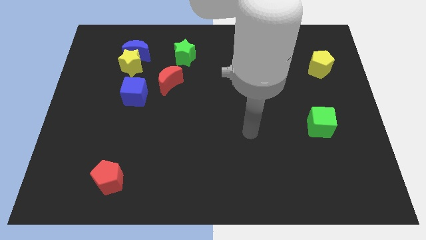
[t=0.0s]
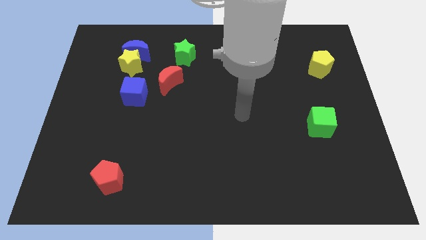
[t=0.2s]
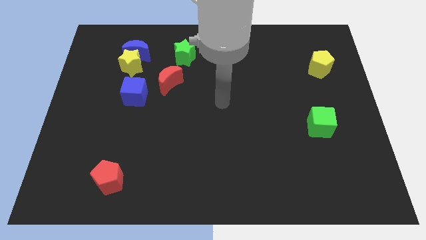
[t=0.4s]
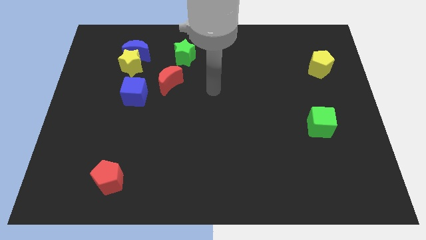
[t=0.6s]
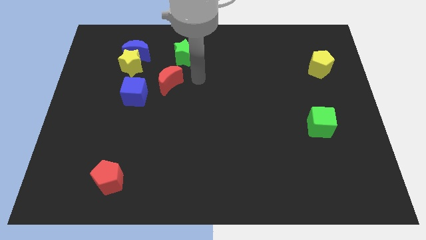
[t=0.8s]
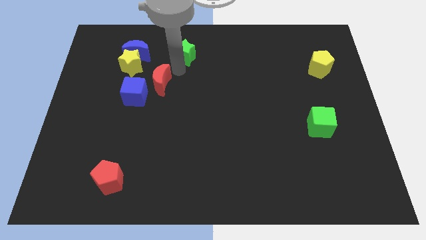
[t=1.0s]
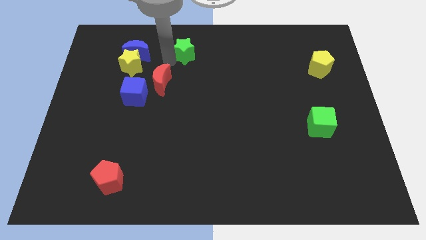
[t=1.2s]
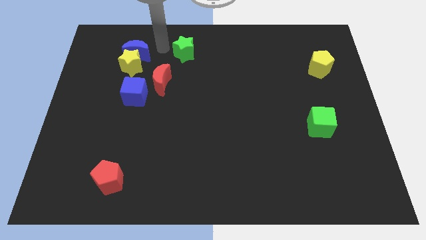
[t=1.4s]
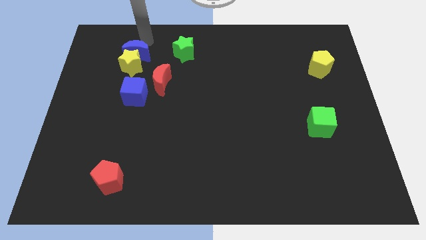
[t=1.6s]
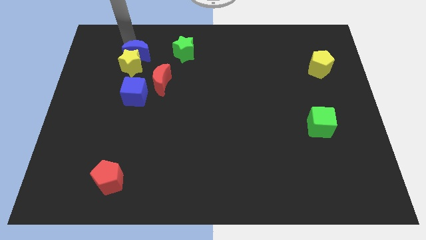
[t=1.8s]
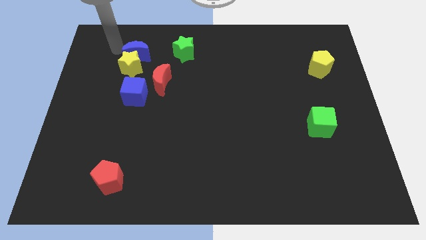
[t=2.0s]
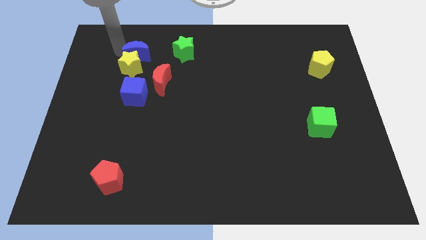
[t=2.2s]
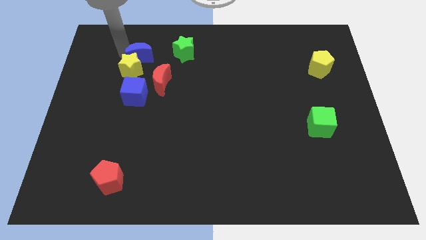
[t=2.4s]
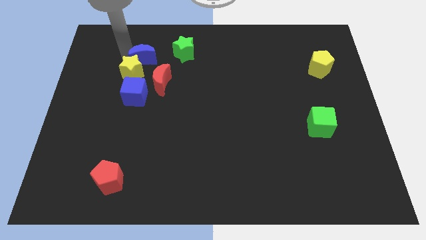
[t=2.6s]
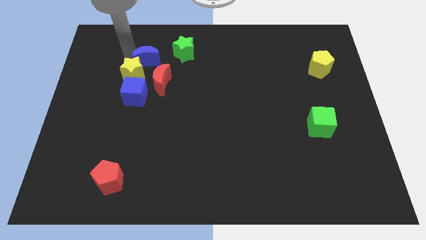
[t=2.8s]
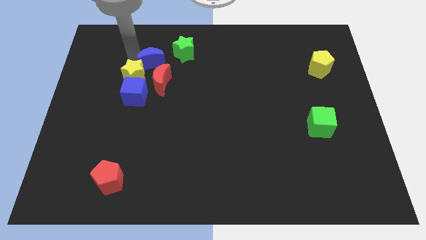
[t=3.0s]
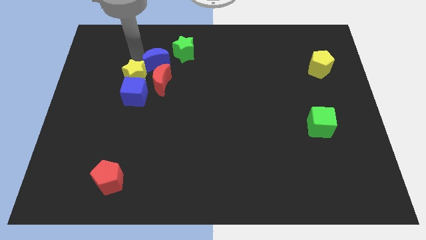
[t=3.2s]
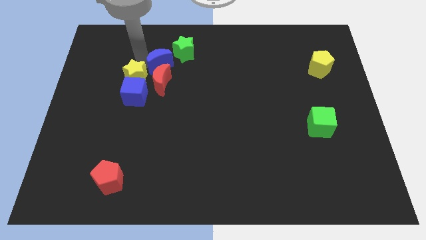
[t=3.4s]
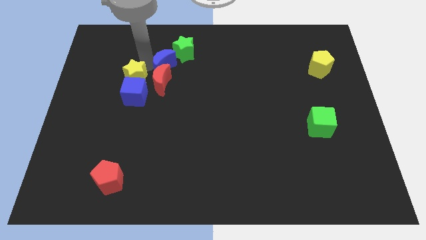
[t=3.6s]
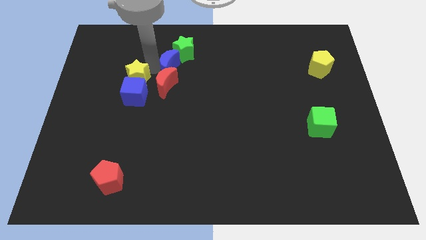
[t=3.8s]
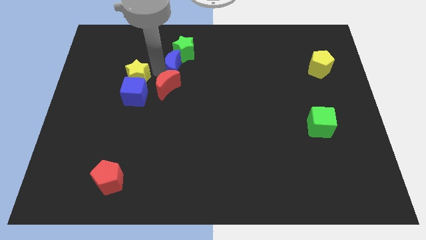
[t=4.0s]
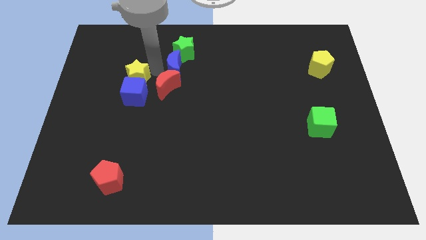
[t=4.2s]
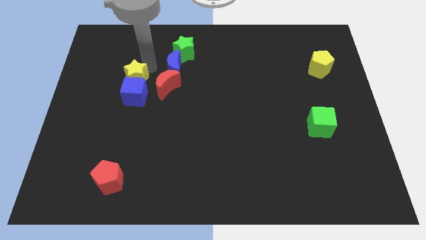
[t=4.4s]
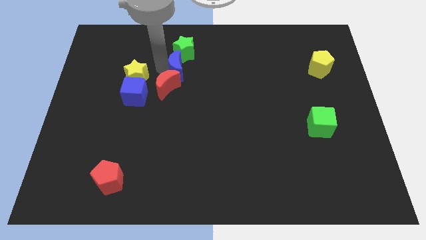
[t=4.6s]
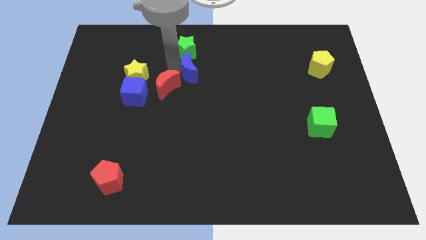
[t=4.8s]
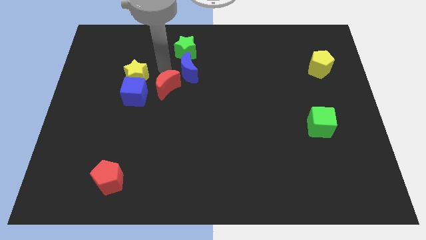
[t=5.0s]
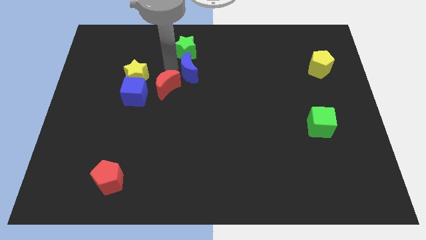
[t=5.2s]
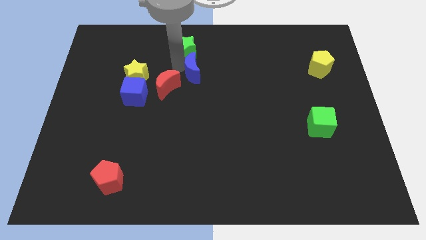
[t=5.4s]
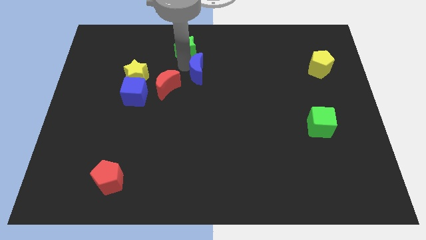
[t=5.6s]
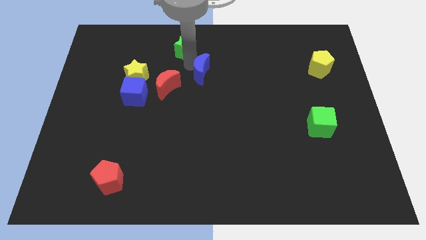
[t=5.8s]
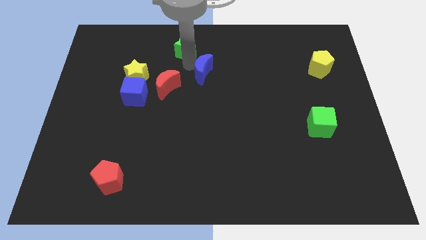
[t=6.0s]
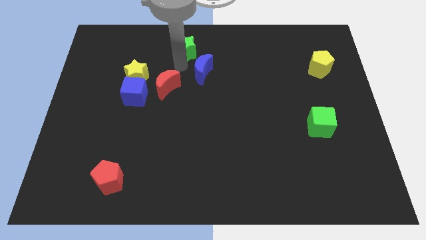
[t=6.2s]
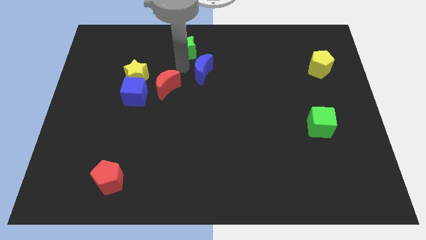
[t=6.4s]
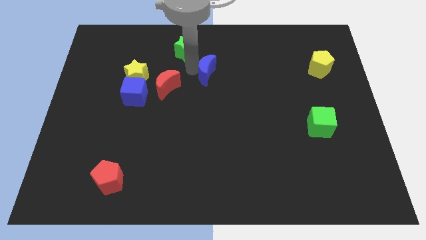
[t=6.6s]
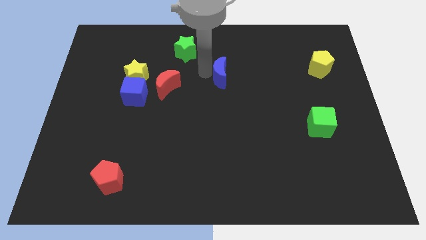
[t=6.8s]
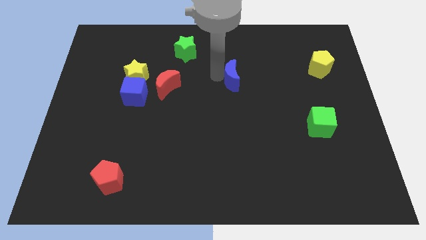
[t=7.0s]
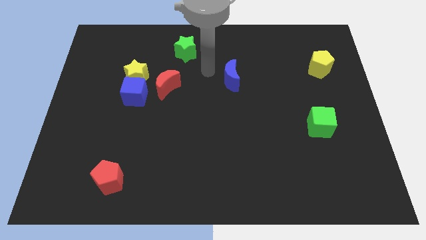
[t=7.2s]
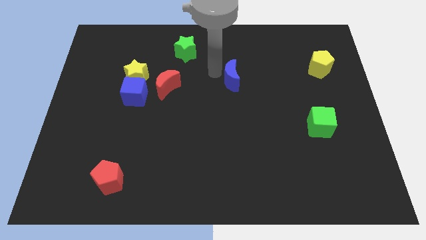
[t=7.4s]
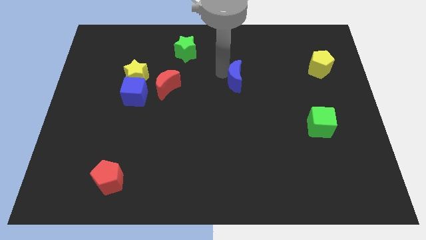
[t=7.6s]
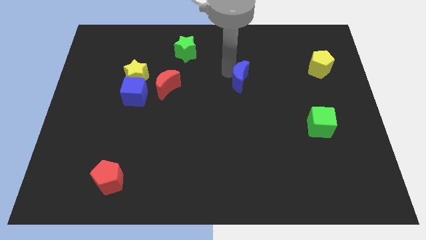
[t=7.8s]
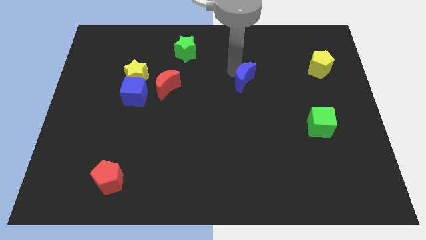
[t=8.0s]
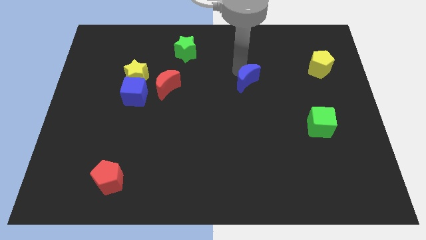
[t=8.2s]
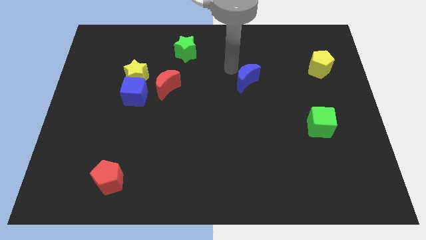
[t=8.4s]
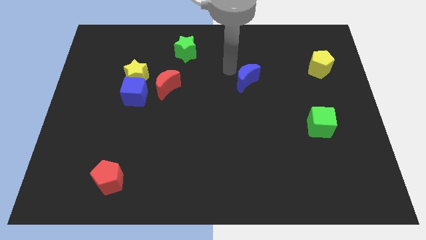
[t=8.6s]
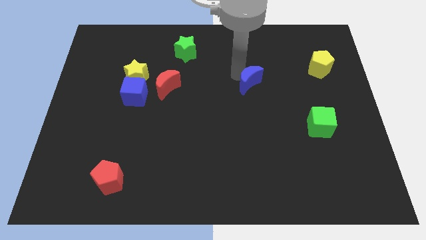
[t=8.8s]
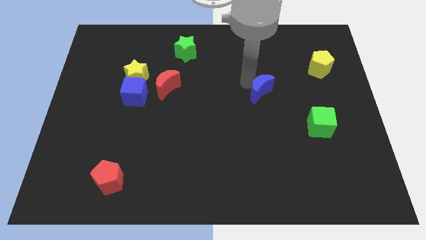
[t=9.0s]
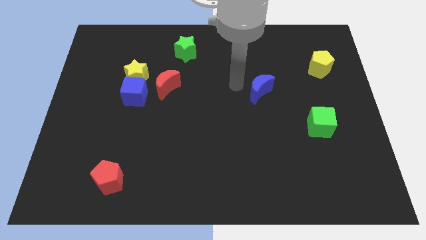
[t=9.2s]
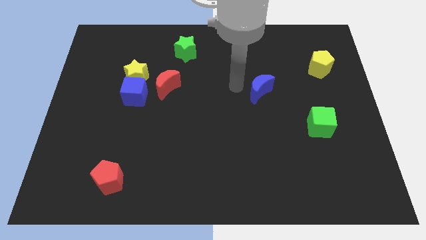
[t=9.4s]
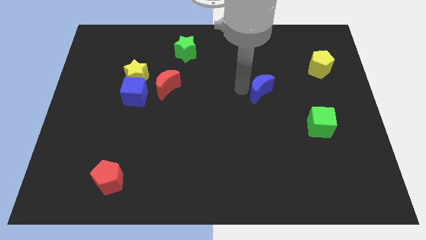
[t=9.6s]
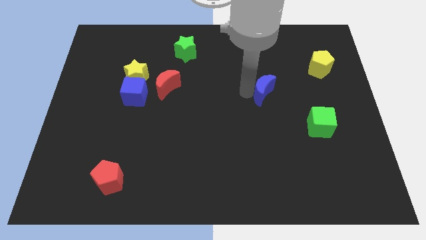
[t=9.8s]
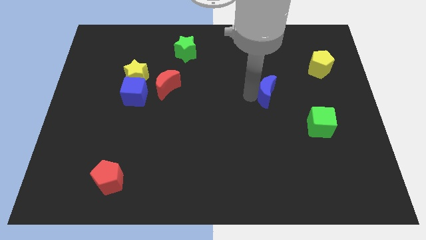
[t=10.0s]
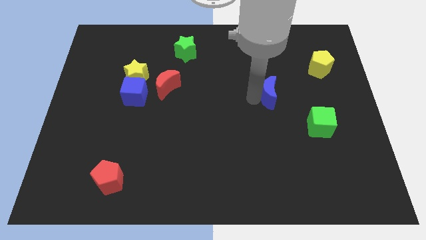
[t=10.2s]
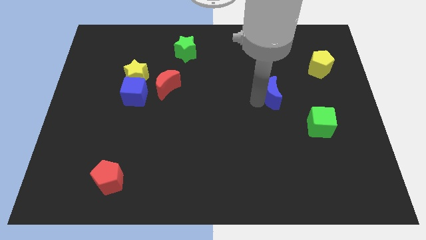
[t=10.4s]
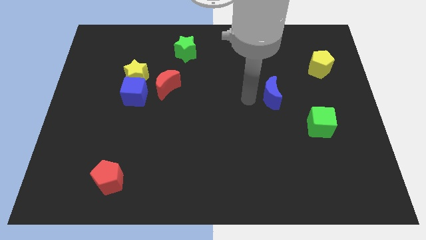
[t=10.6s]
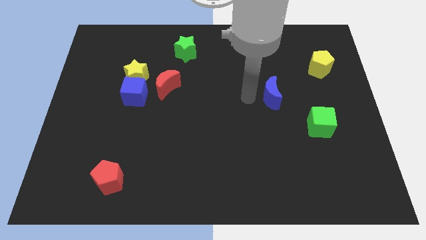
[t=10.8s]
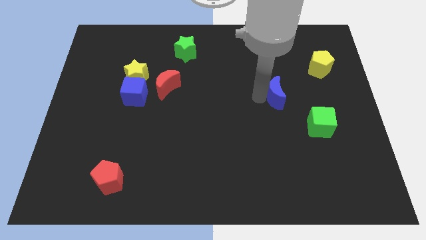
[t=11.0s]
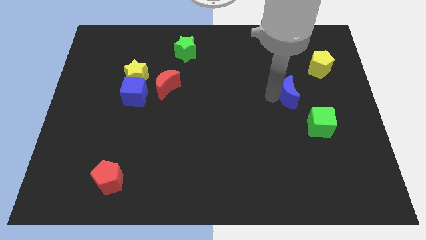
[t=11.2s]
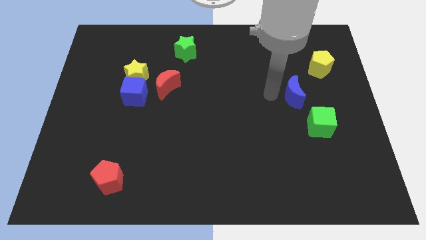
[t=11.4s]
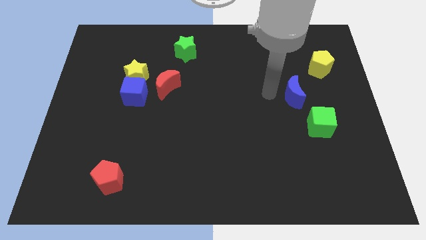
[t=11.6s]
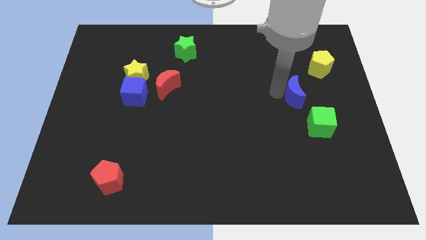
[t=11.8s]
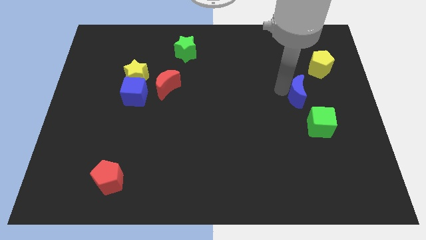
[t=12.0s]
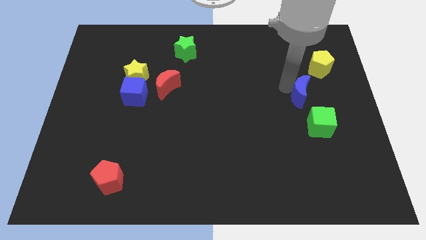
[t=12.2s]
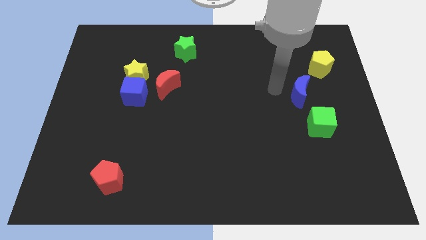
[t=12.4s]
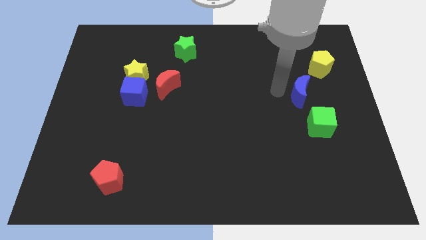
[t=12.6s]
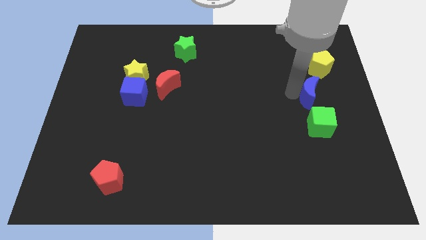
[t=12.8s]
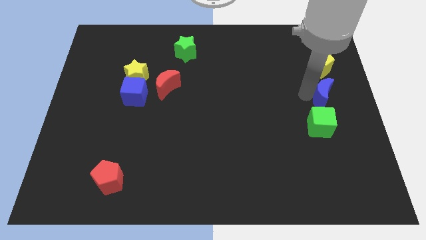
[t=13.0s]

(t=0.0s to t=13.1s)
put the blue moon to the center right

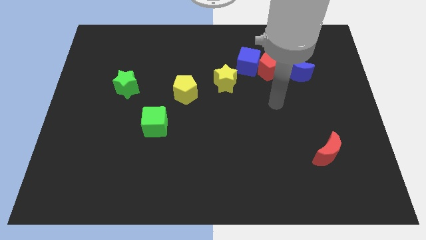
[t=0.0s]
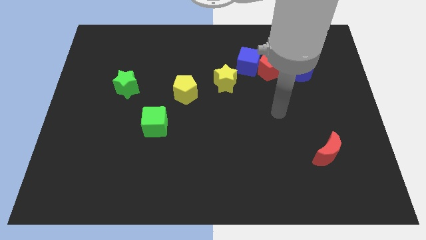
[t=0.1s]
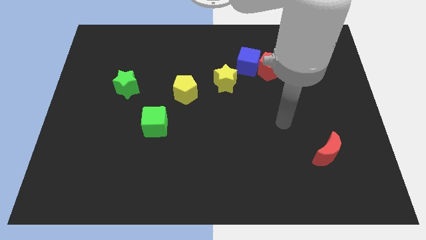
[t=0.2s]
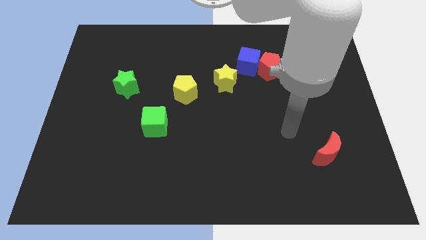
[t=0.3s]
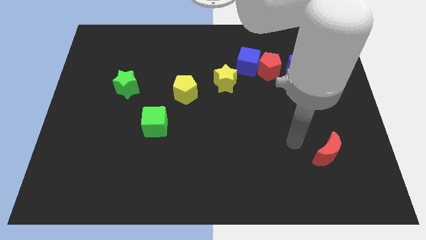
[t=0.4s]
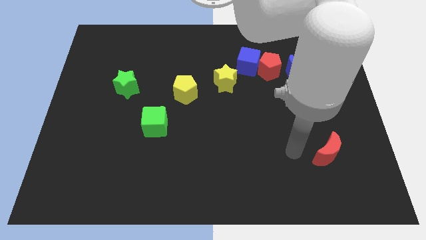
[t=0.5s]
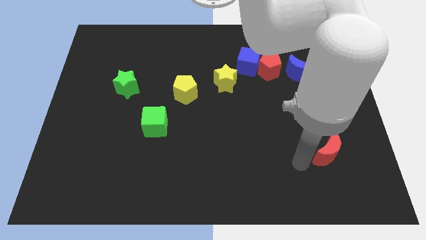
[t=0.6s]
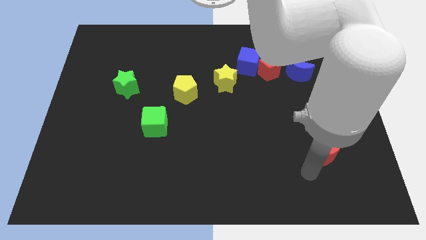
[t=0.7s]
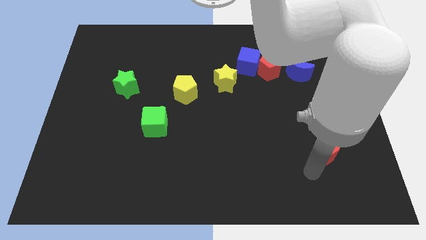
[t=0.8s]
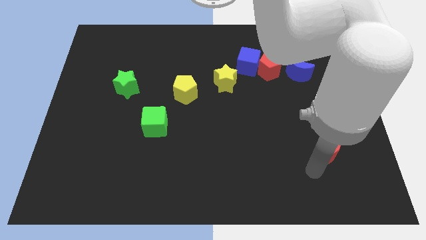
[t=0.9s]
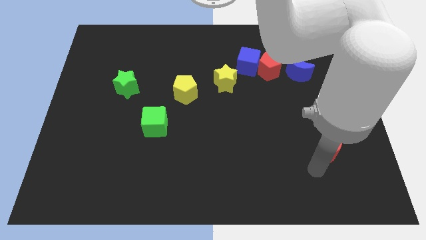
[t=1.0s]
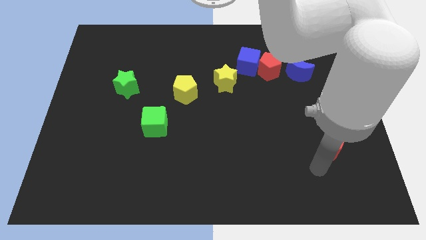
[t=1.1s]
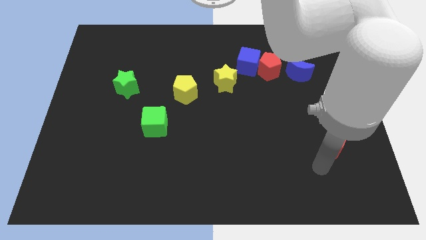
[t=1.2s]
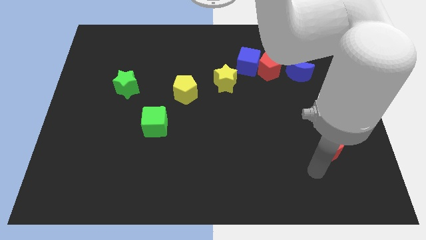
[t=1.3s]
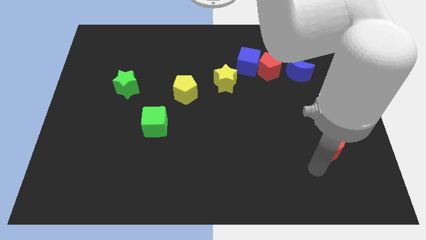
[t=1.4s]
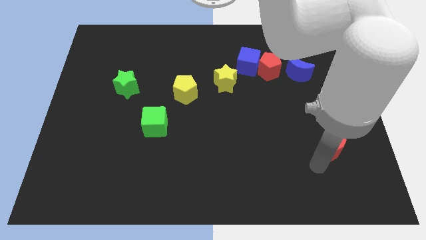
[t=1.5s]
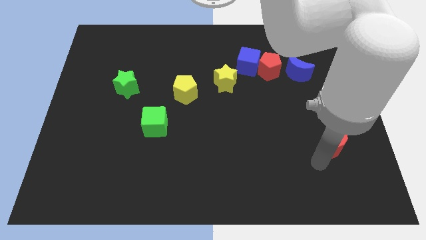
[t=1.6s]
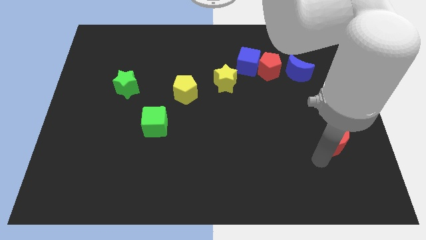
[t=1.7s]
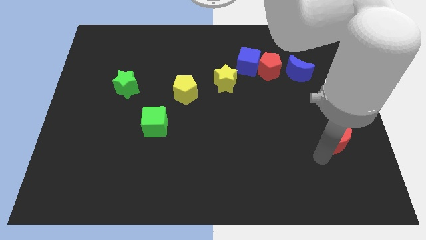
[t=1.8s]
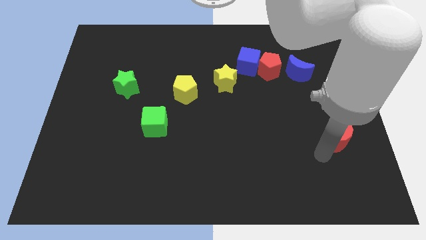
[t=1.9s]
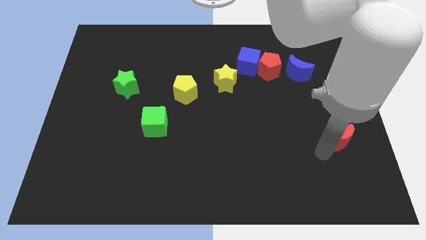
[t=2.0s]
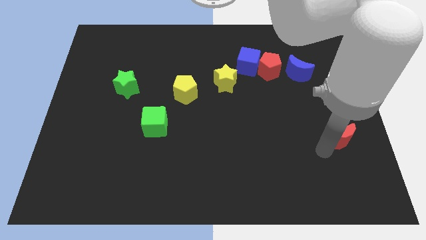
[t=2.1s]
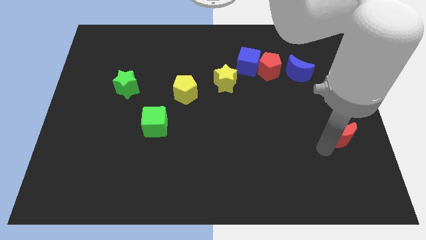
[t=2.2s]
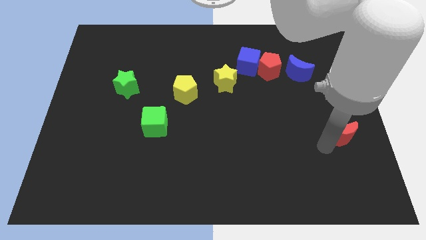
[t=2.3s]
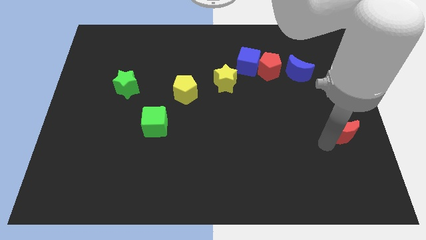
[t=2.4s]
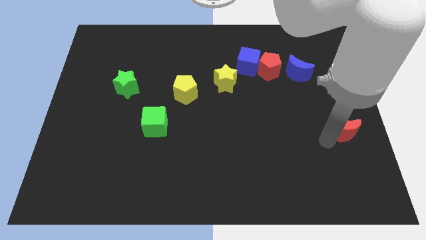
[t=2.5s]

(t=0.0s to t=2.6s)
put the red moon to the right side
